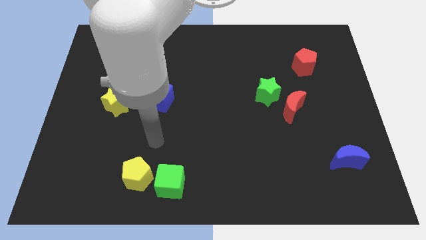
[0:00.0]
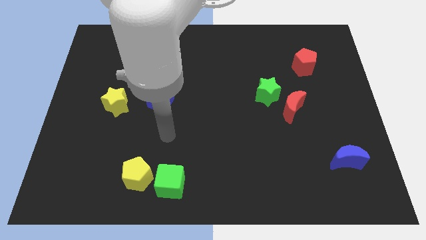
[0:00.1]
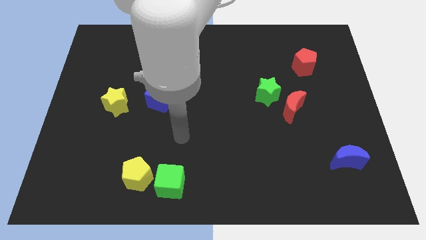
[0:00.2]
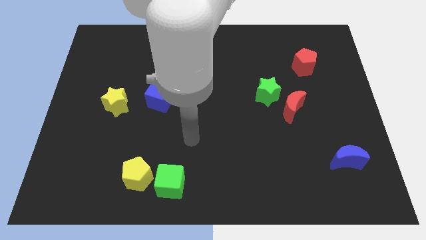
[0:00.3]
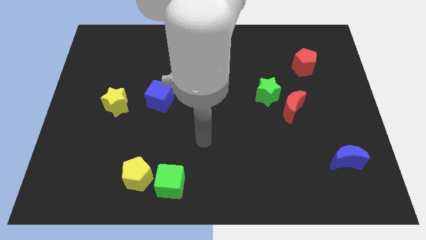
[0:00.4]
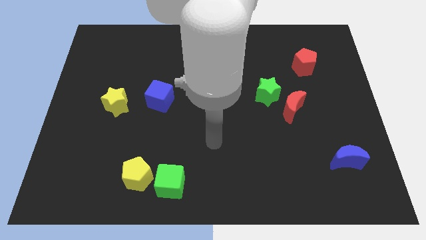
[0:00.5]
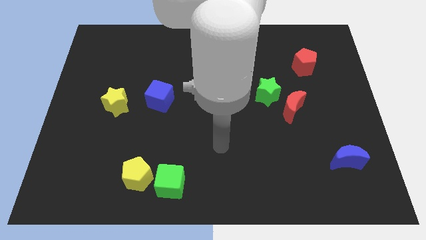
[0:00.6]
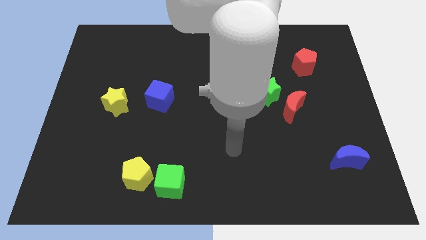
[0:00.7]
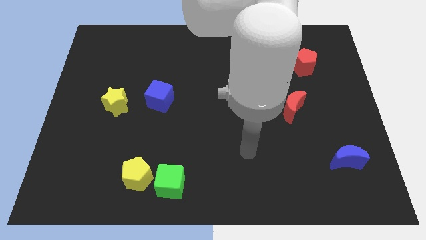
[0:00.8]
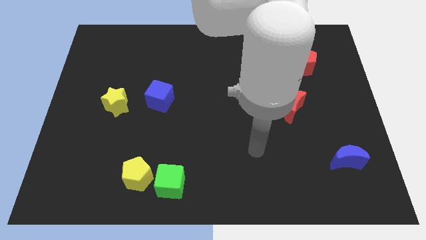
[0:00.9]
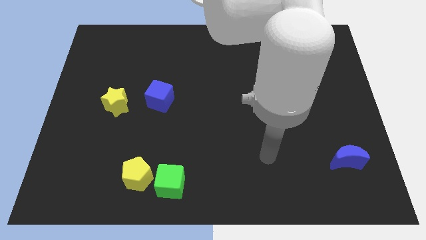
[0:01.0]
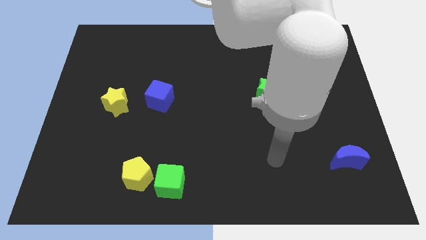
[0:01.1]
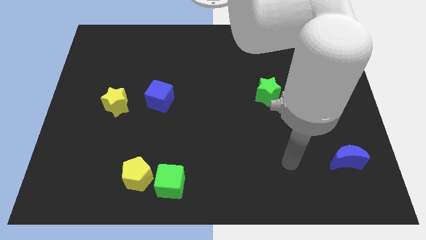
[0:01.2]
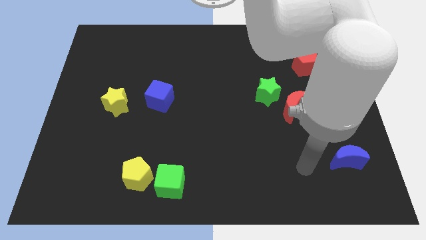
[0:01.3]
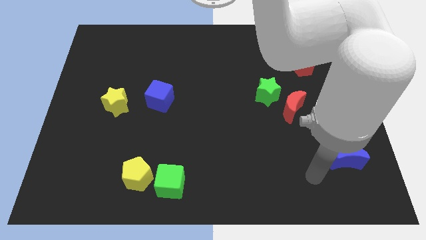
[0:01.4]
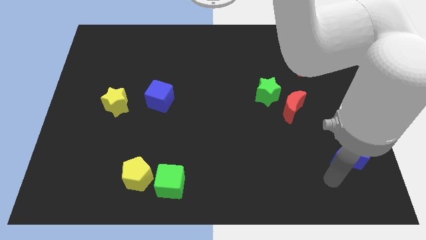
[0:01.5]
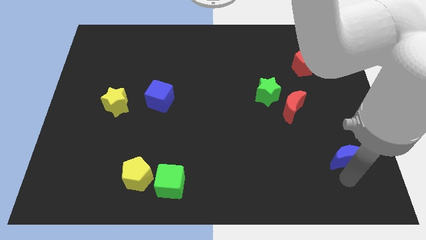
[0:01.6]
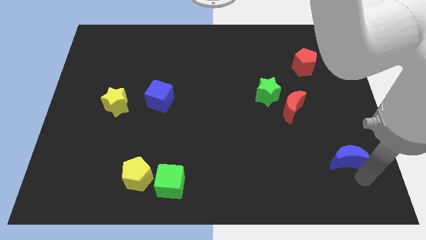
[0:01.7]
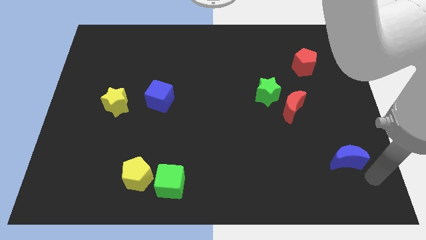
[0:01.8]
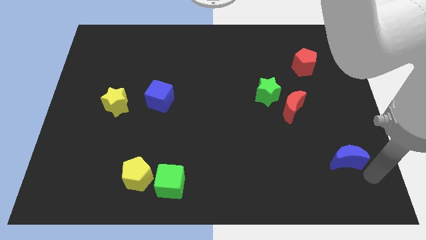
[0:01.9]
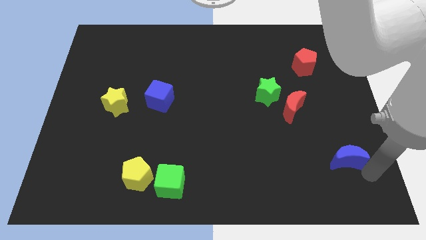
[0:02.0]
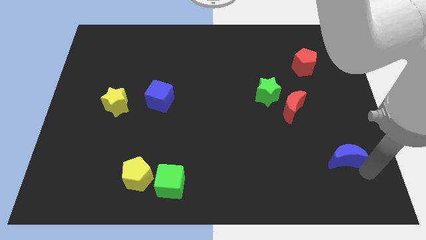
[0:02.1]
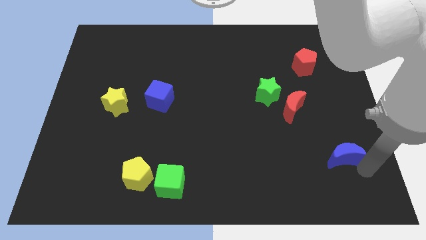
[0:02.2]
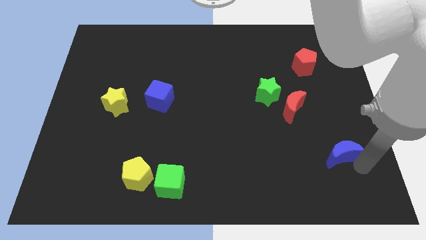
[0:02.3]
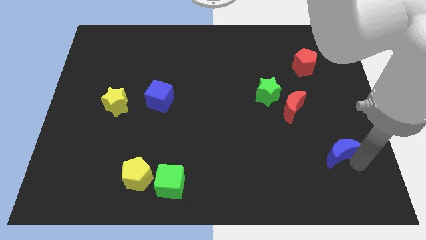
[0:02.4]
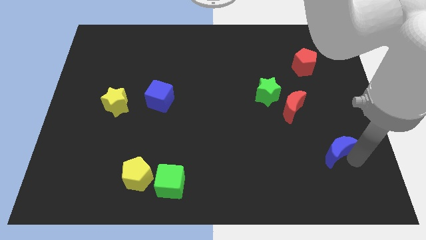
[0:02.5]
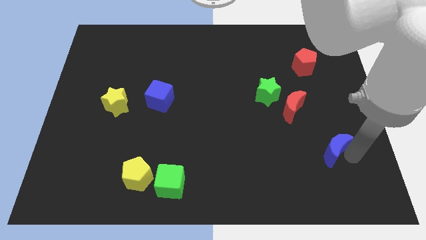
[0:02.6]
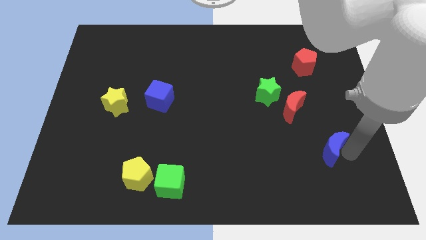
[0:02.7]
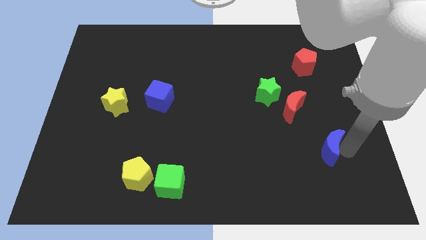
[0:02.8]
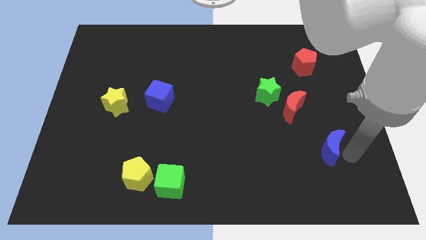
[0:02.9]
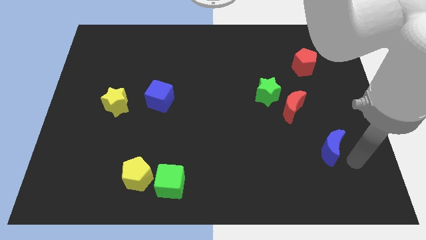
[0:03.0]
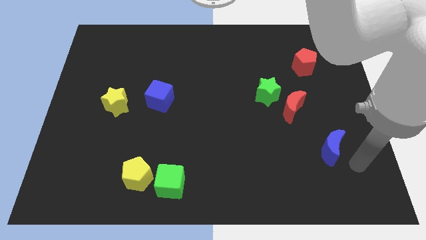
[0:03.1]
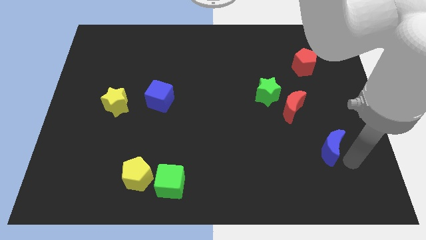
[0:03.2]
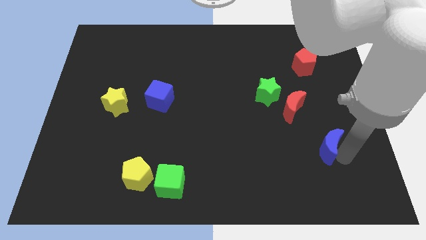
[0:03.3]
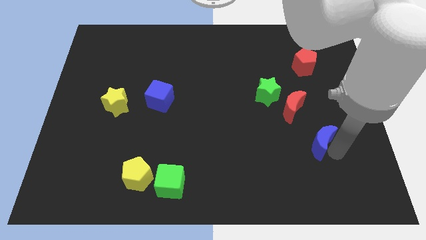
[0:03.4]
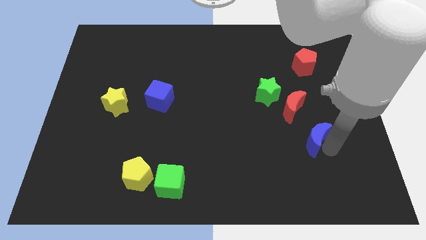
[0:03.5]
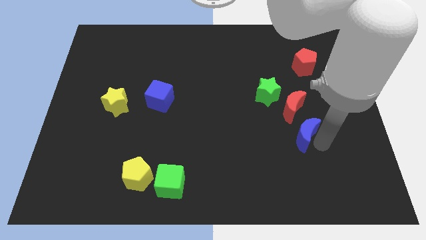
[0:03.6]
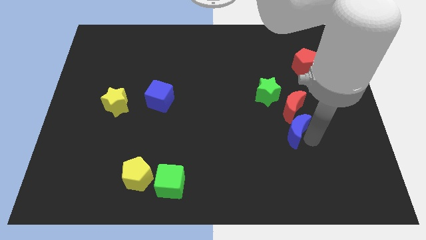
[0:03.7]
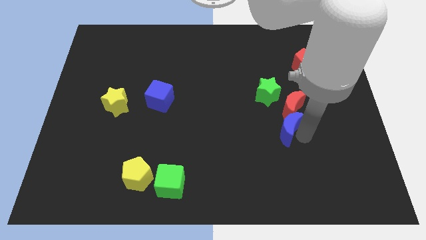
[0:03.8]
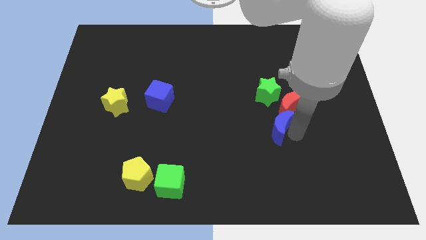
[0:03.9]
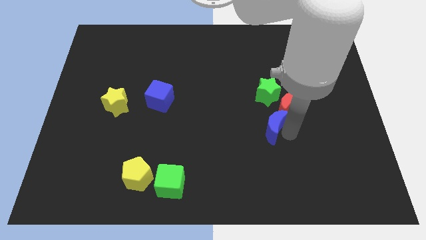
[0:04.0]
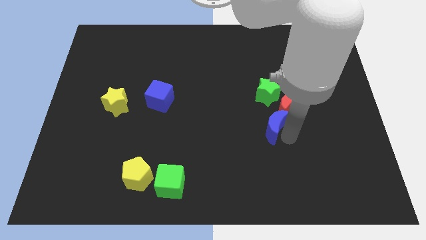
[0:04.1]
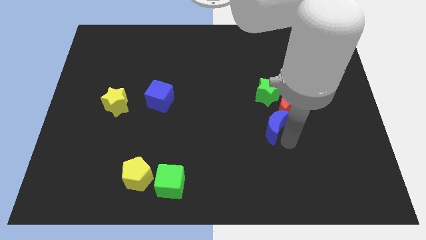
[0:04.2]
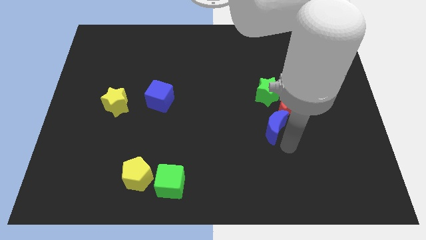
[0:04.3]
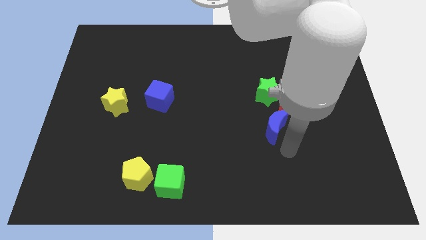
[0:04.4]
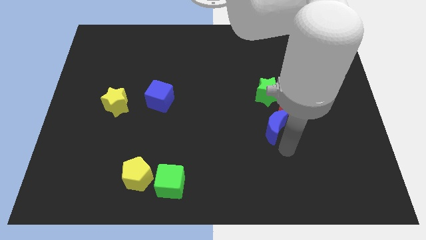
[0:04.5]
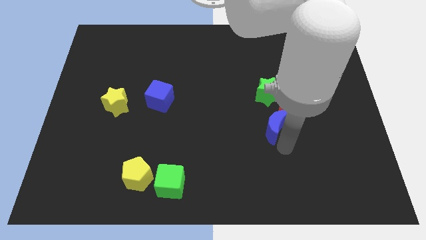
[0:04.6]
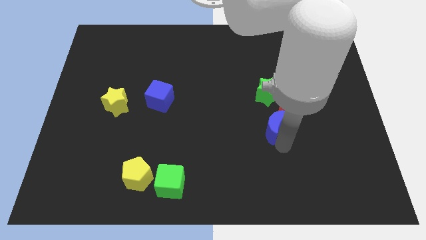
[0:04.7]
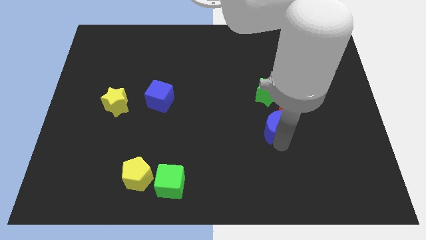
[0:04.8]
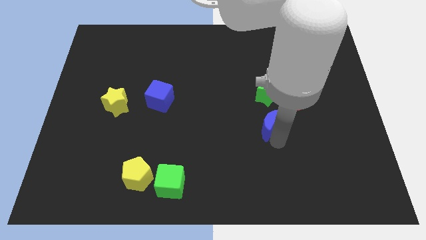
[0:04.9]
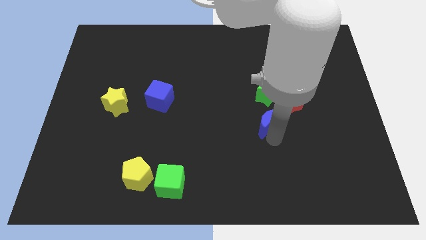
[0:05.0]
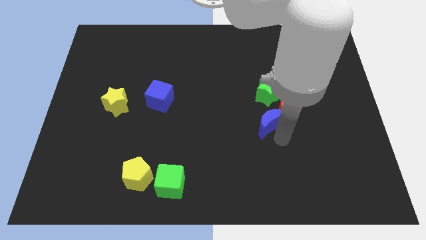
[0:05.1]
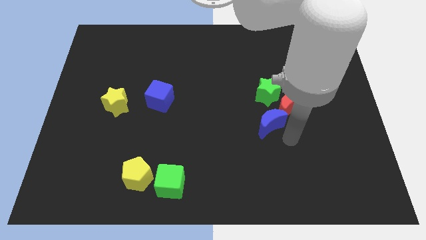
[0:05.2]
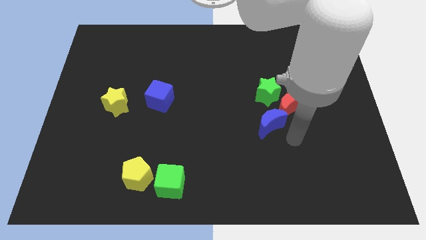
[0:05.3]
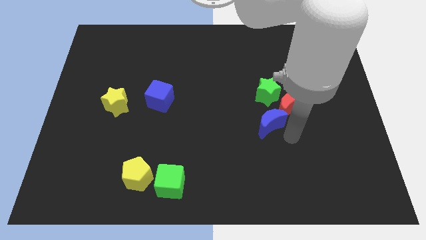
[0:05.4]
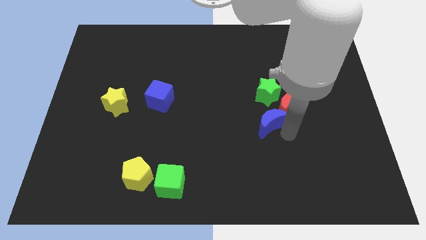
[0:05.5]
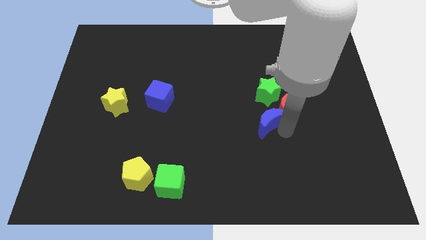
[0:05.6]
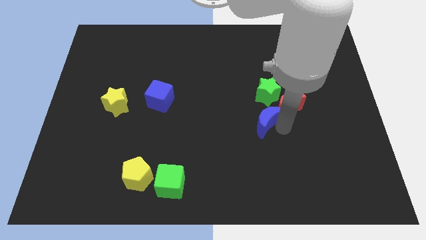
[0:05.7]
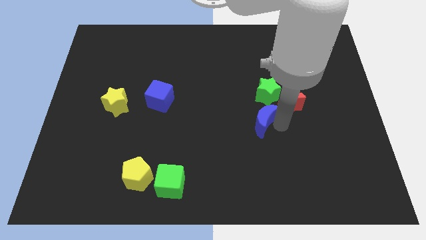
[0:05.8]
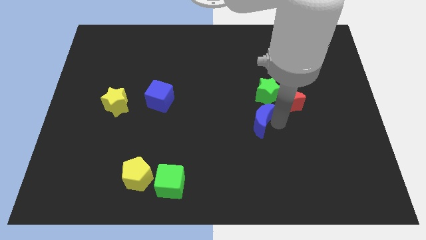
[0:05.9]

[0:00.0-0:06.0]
move the blue moon to the middle of the board
